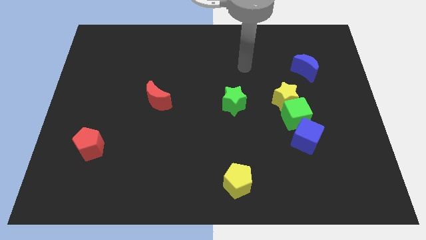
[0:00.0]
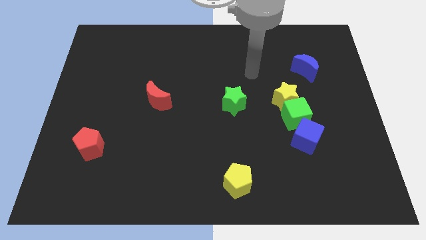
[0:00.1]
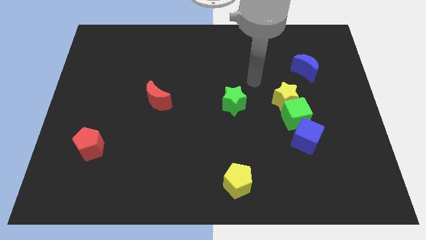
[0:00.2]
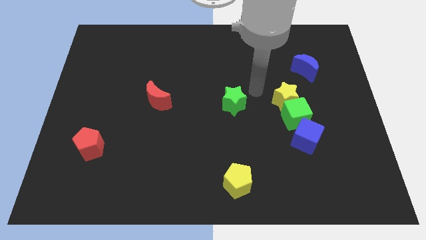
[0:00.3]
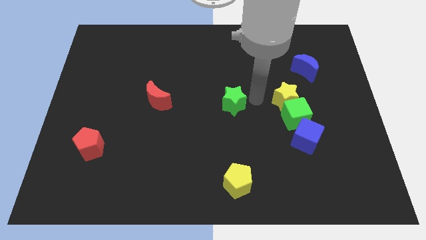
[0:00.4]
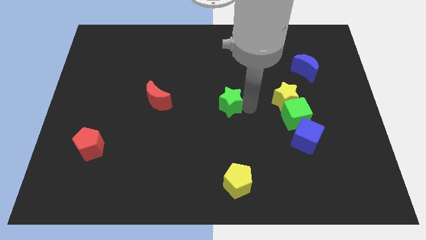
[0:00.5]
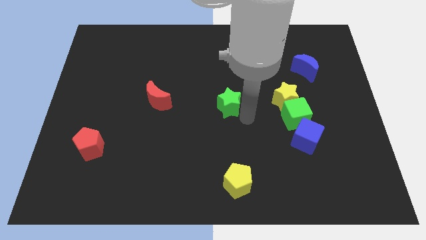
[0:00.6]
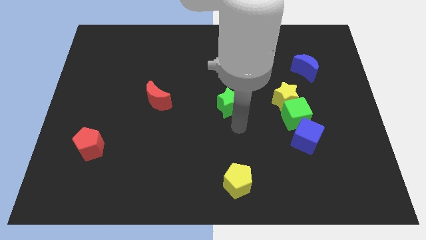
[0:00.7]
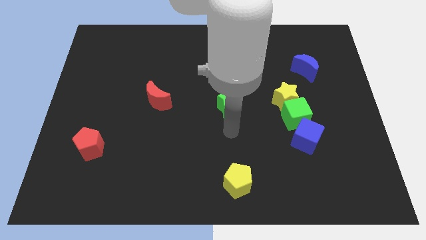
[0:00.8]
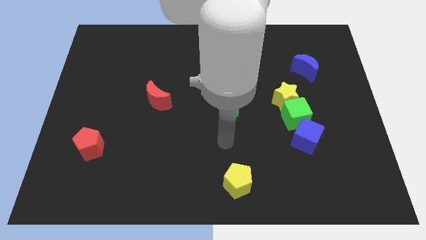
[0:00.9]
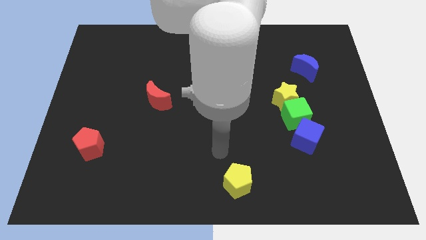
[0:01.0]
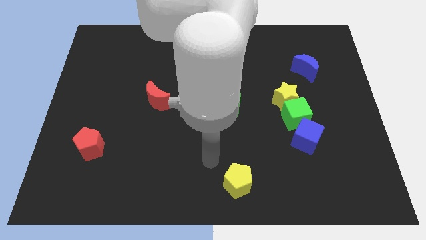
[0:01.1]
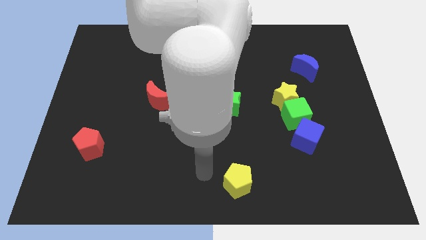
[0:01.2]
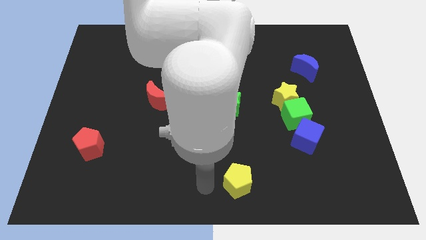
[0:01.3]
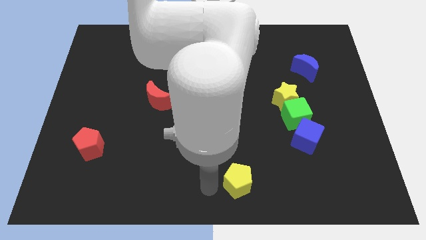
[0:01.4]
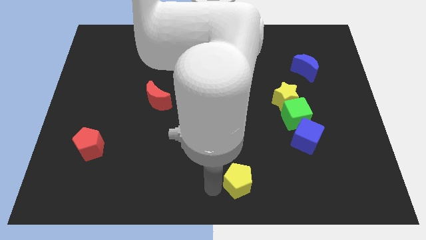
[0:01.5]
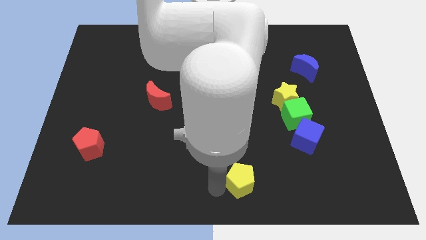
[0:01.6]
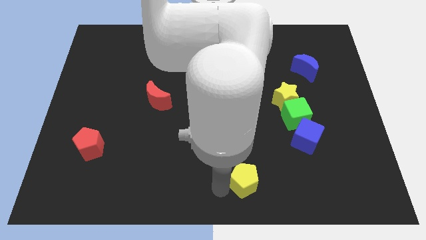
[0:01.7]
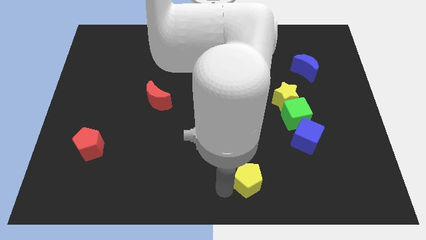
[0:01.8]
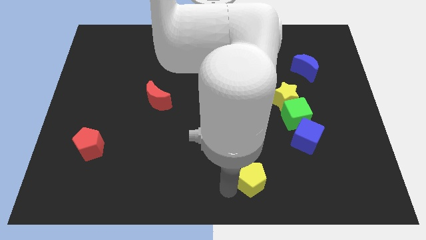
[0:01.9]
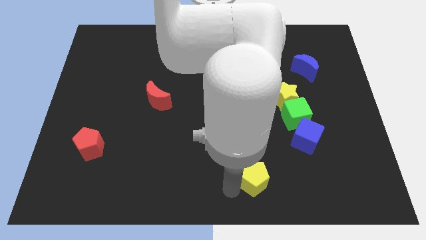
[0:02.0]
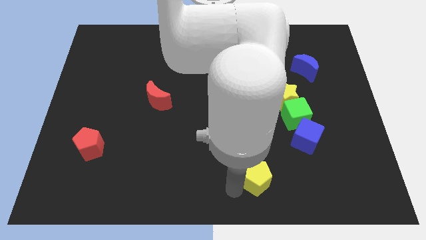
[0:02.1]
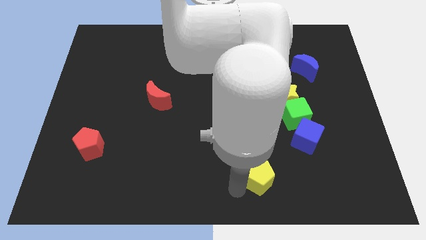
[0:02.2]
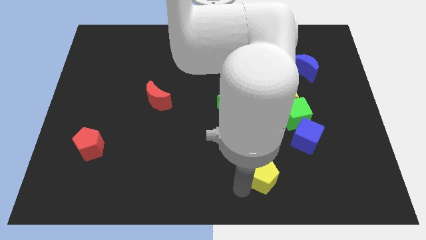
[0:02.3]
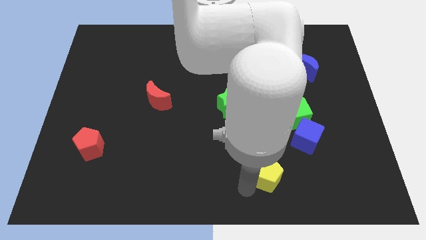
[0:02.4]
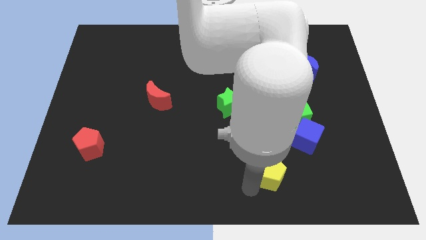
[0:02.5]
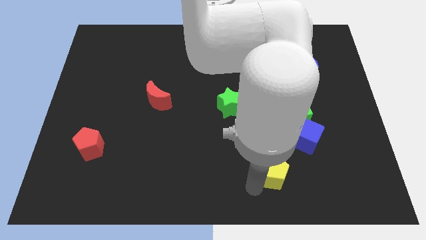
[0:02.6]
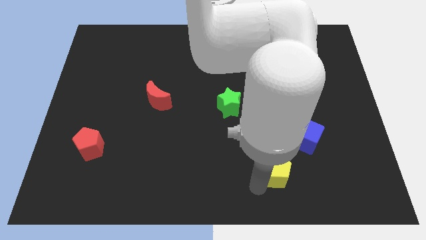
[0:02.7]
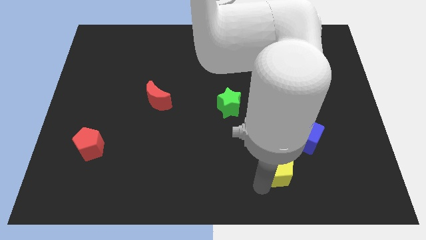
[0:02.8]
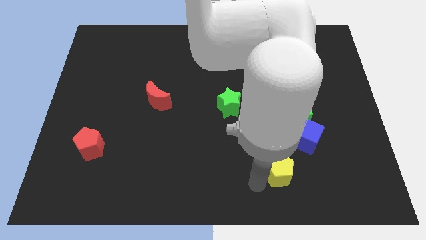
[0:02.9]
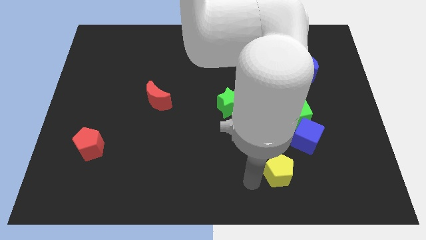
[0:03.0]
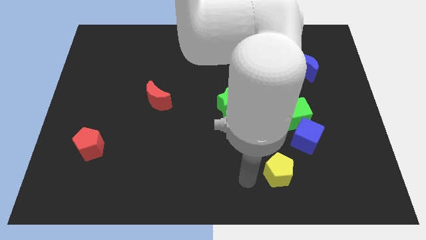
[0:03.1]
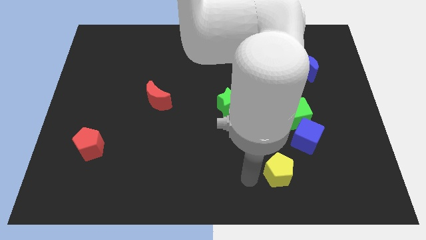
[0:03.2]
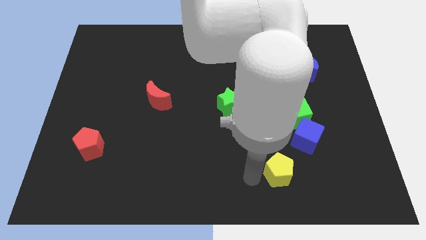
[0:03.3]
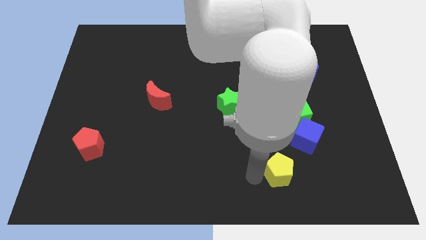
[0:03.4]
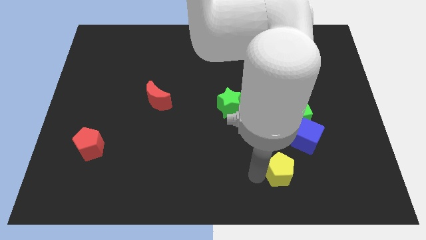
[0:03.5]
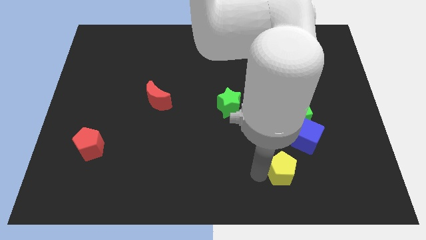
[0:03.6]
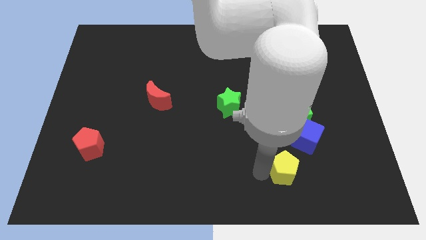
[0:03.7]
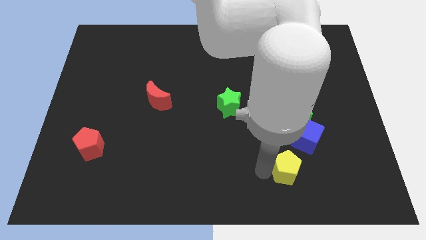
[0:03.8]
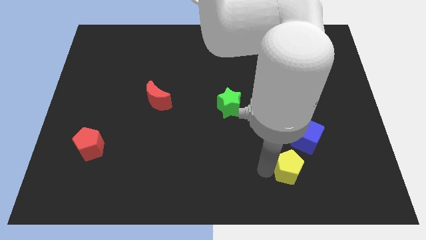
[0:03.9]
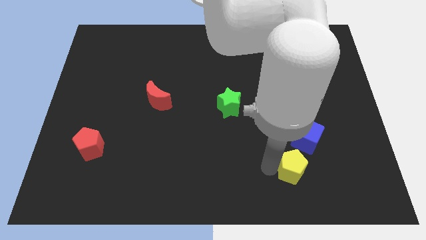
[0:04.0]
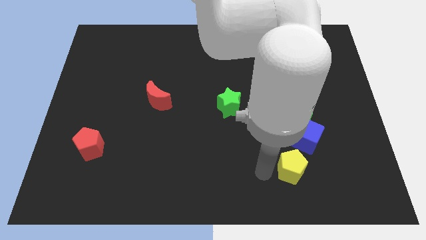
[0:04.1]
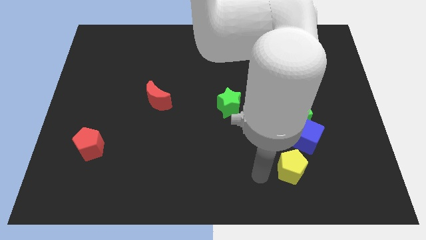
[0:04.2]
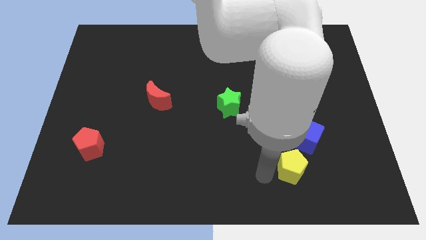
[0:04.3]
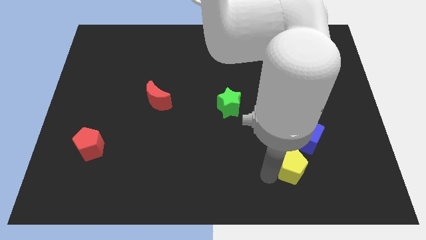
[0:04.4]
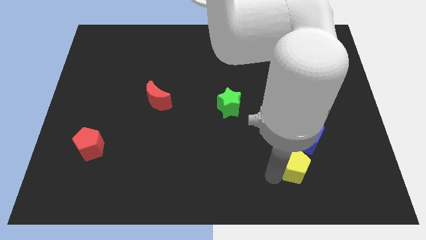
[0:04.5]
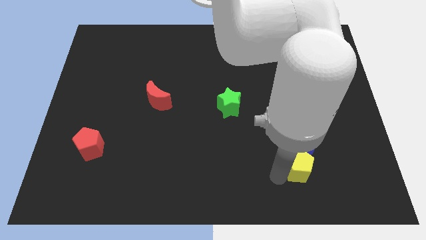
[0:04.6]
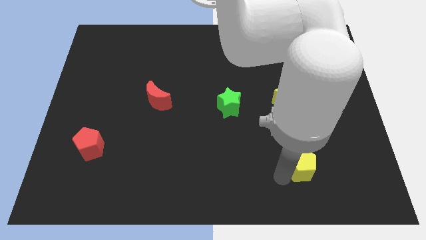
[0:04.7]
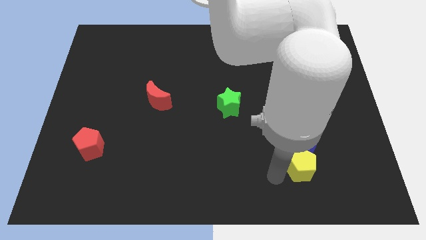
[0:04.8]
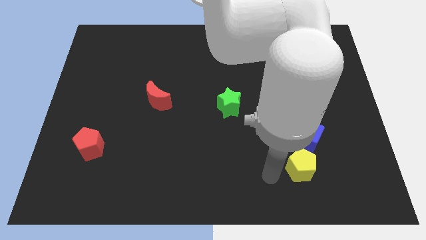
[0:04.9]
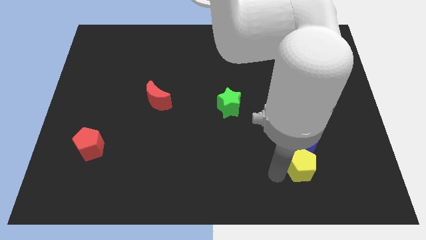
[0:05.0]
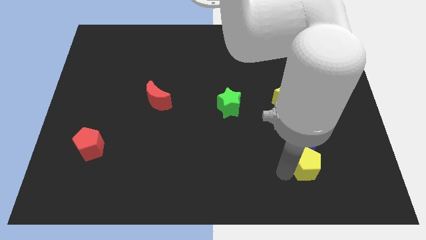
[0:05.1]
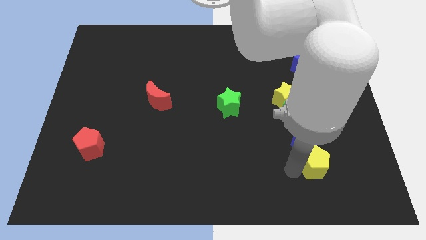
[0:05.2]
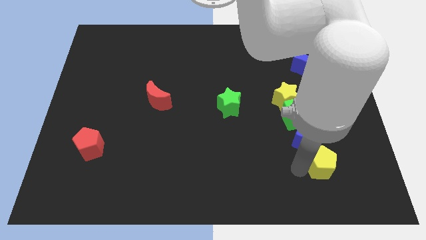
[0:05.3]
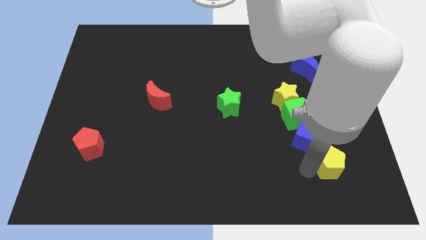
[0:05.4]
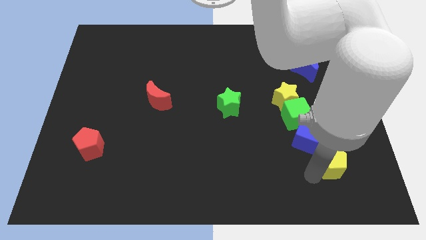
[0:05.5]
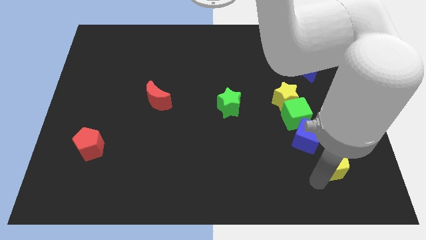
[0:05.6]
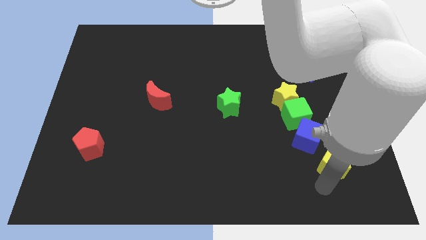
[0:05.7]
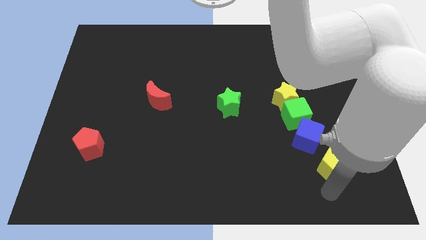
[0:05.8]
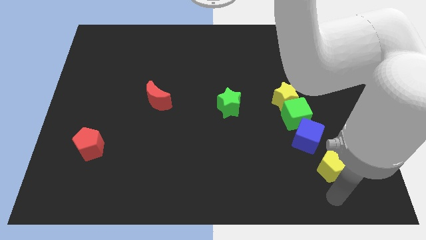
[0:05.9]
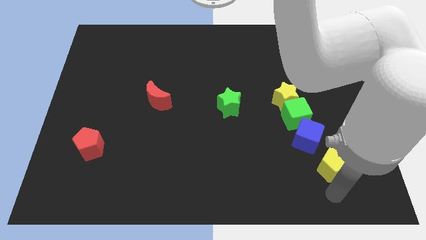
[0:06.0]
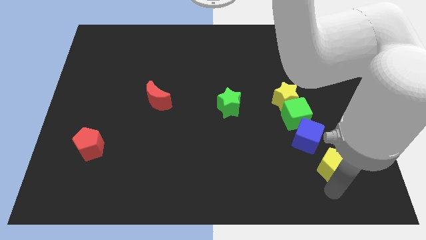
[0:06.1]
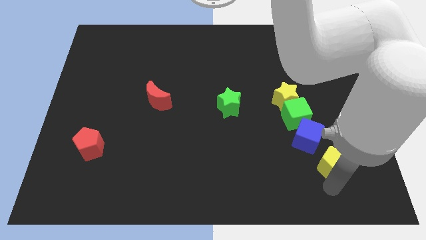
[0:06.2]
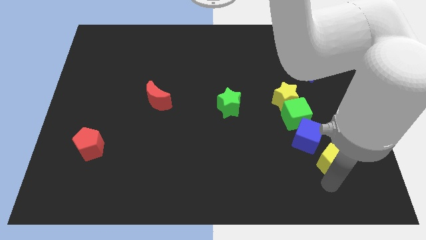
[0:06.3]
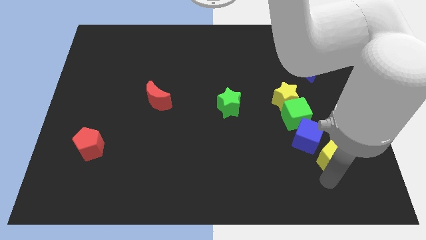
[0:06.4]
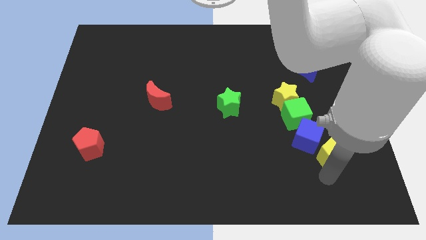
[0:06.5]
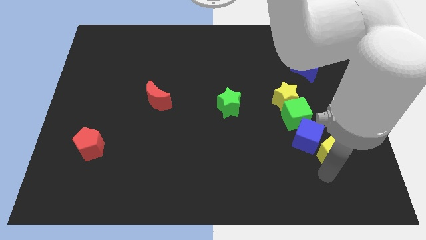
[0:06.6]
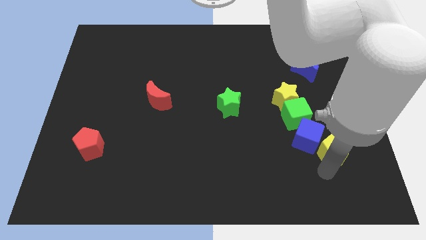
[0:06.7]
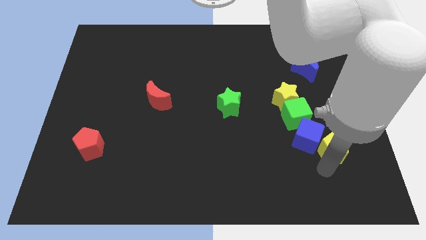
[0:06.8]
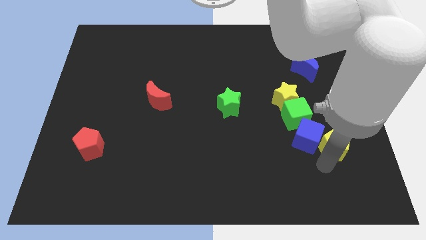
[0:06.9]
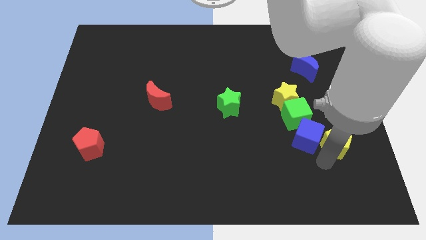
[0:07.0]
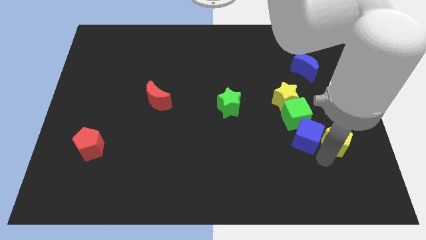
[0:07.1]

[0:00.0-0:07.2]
put the yellow pentagon diagonally up and to the right of the blue cube
